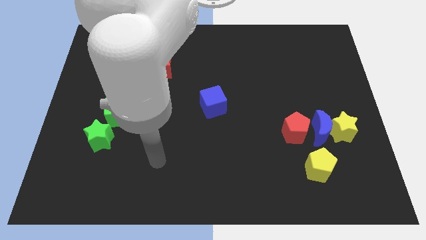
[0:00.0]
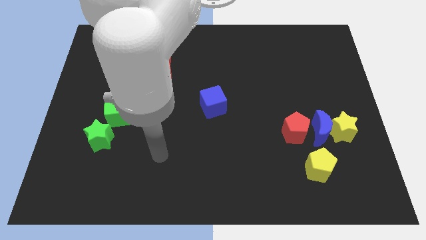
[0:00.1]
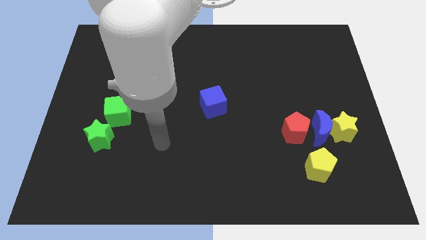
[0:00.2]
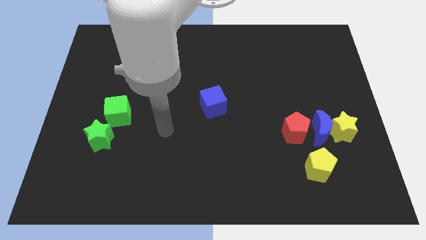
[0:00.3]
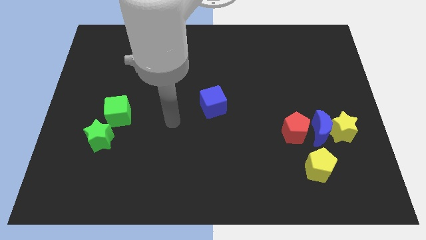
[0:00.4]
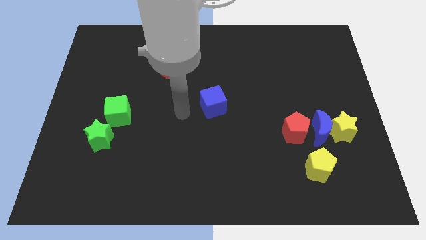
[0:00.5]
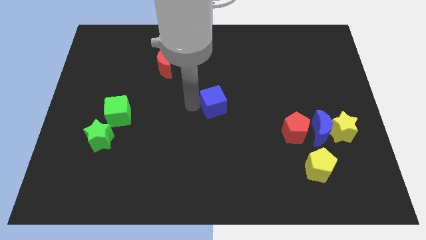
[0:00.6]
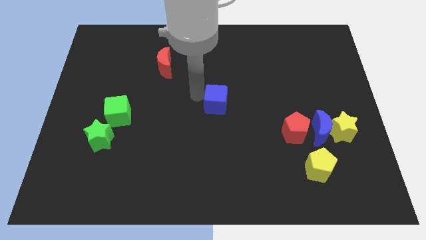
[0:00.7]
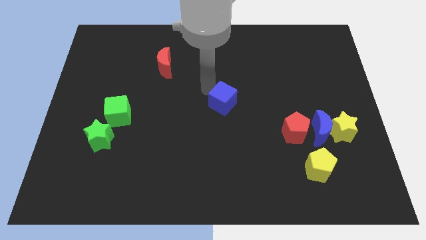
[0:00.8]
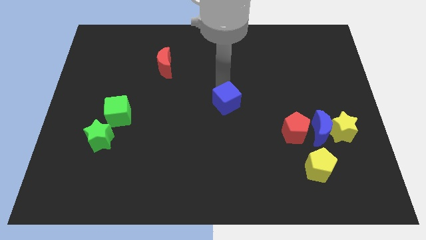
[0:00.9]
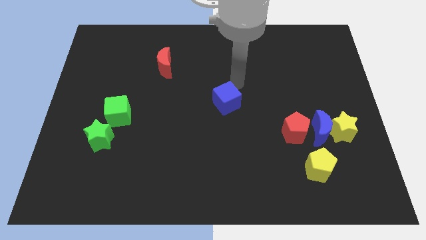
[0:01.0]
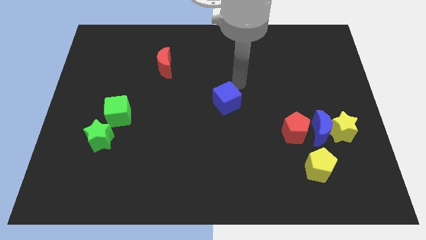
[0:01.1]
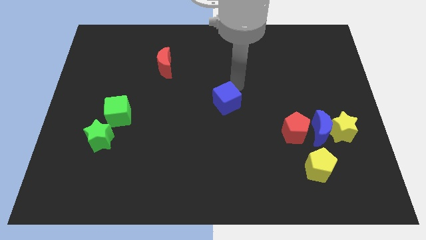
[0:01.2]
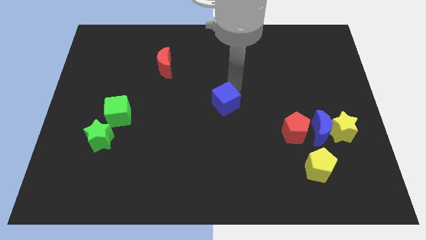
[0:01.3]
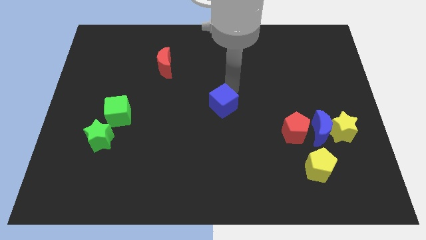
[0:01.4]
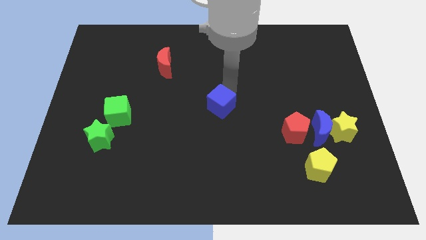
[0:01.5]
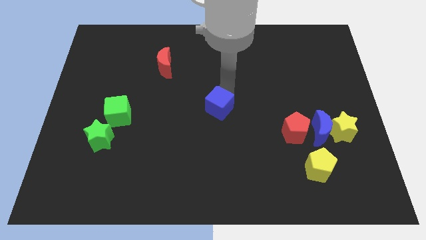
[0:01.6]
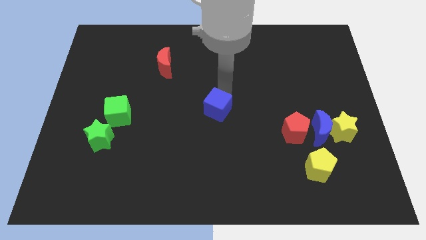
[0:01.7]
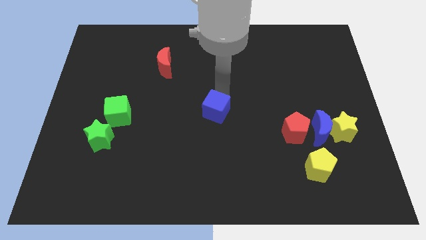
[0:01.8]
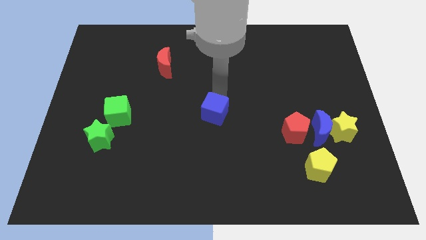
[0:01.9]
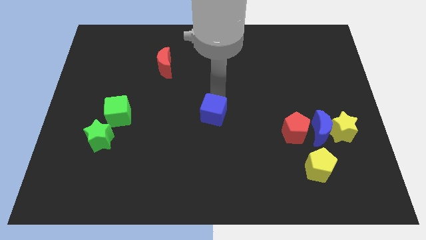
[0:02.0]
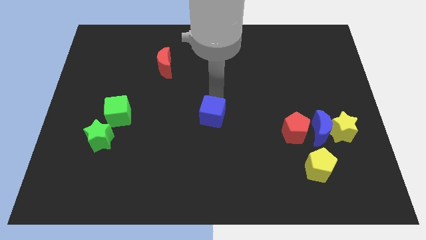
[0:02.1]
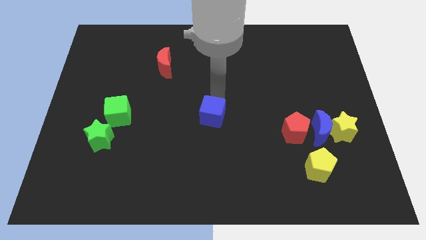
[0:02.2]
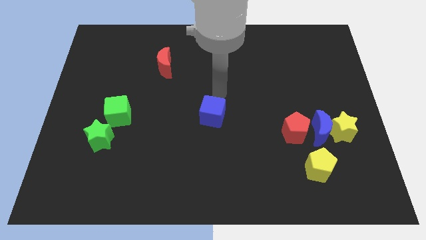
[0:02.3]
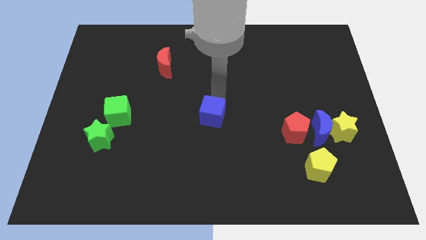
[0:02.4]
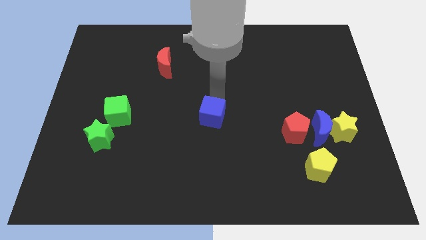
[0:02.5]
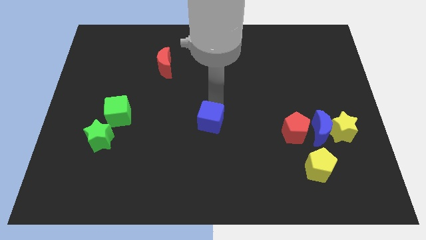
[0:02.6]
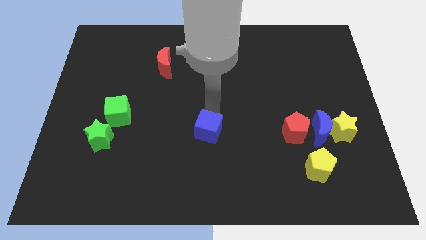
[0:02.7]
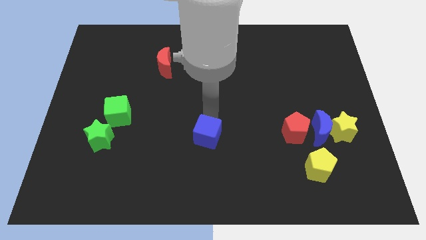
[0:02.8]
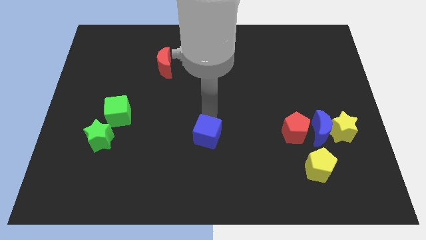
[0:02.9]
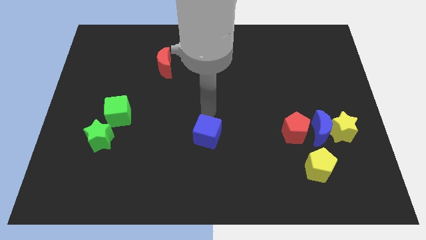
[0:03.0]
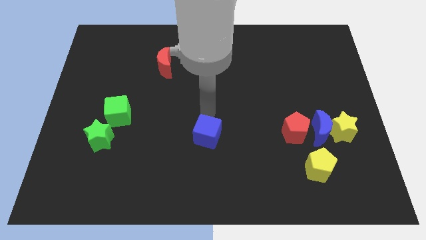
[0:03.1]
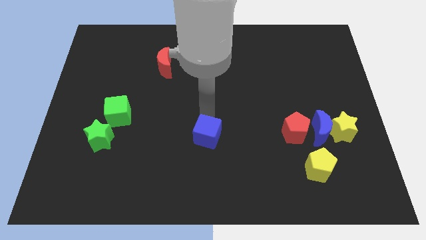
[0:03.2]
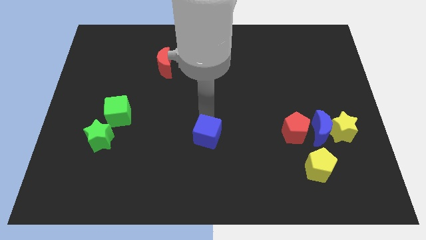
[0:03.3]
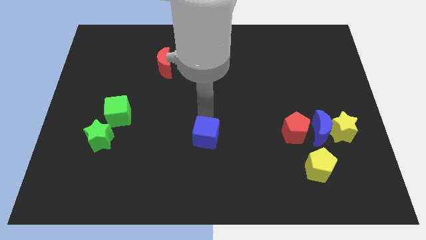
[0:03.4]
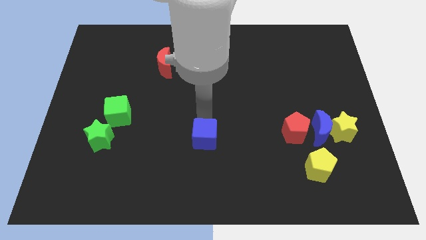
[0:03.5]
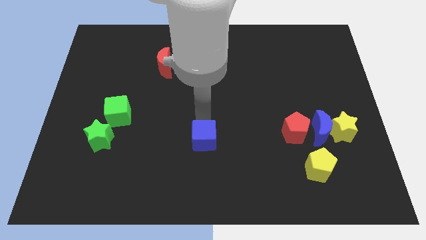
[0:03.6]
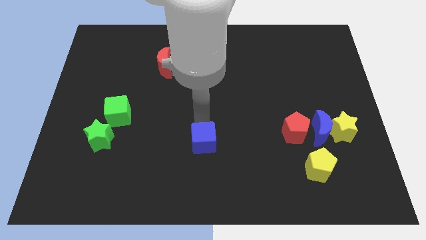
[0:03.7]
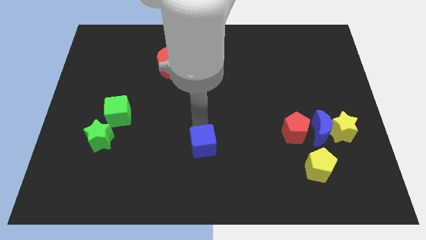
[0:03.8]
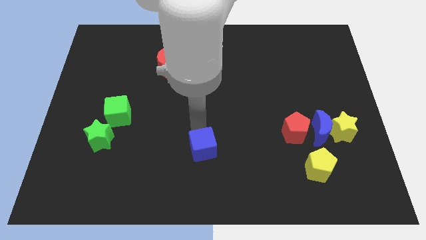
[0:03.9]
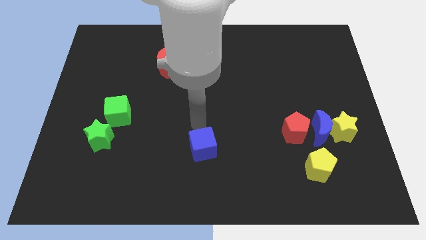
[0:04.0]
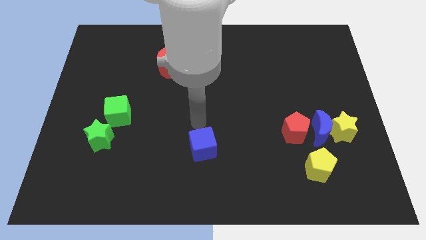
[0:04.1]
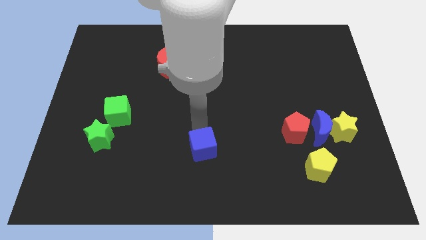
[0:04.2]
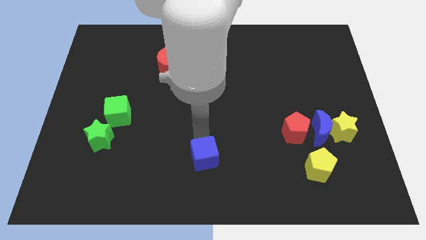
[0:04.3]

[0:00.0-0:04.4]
slide the blue cube to the bottom

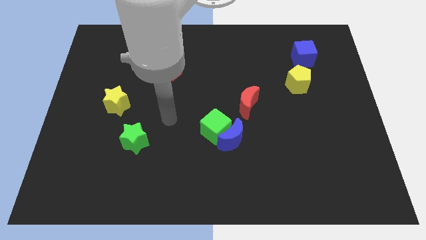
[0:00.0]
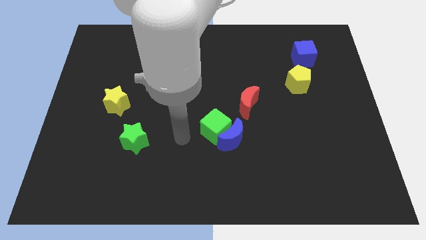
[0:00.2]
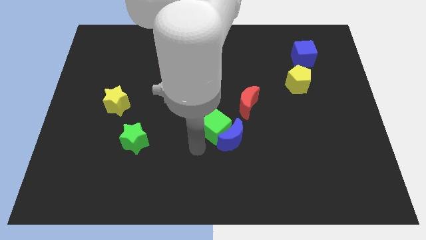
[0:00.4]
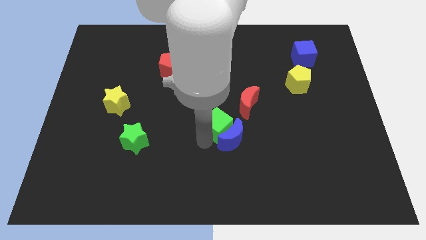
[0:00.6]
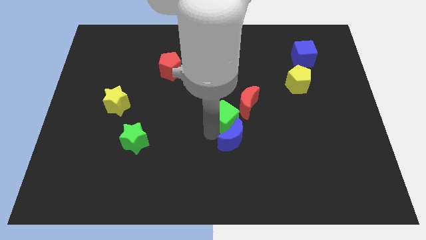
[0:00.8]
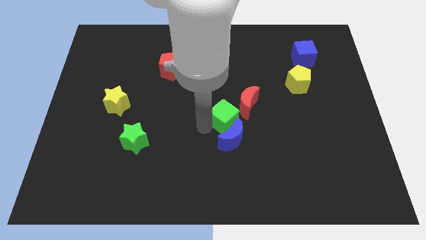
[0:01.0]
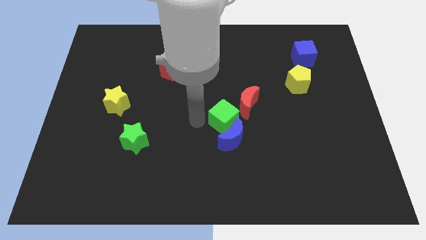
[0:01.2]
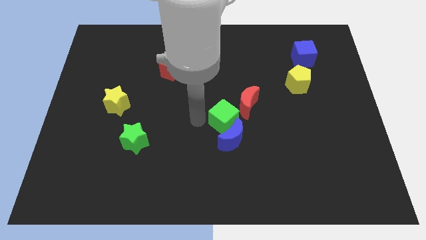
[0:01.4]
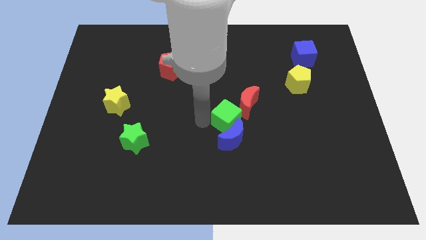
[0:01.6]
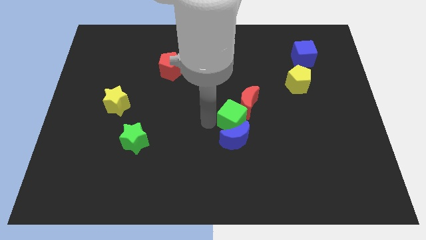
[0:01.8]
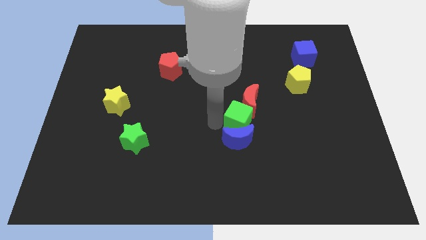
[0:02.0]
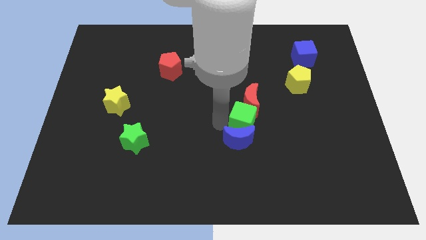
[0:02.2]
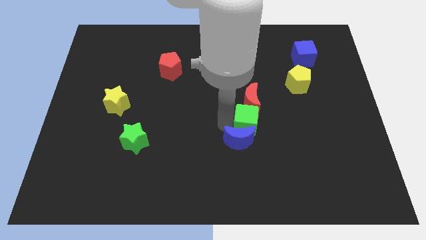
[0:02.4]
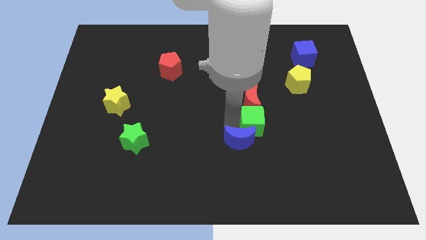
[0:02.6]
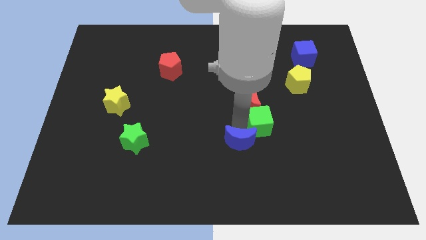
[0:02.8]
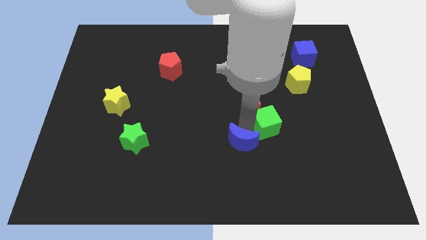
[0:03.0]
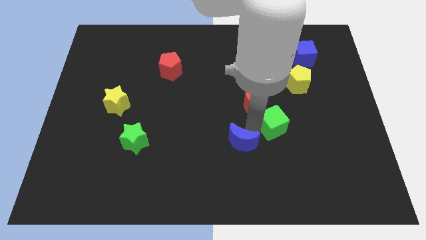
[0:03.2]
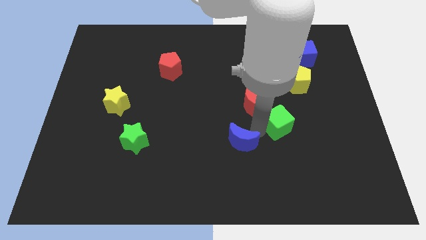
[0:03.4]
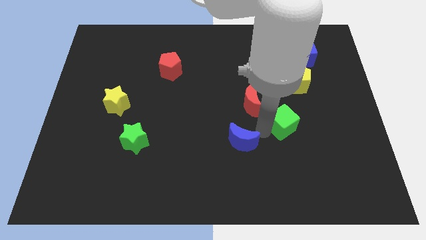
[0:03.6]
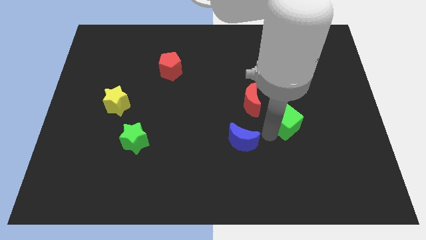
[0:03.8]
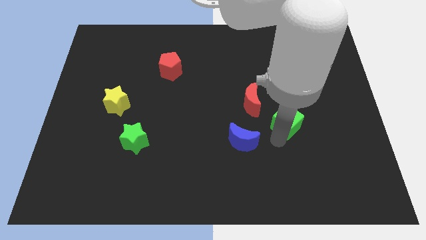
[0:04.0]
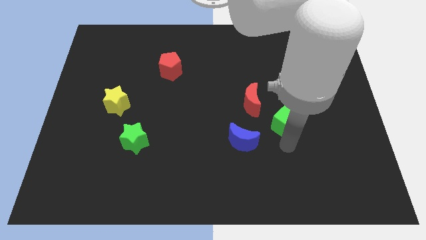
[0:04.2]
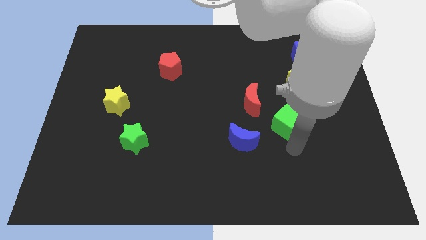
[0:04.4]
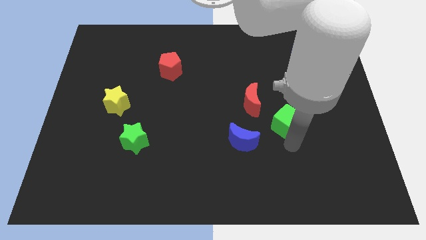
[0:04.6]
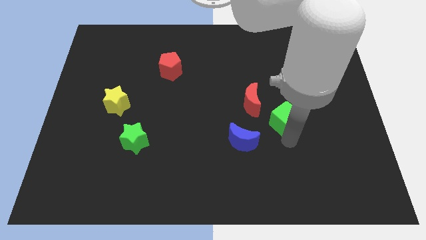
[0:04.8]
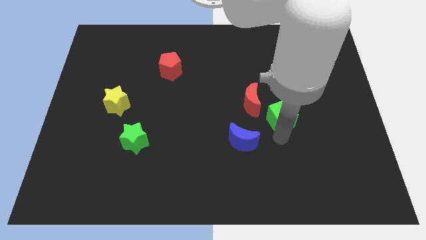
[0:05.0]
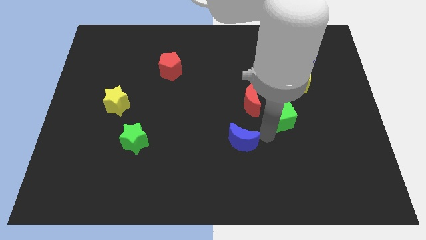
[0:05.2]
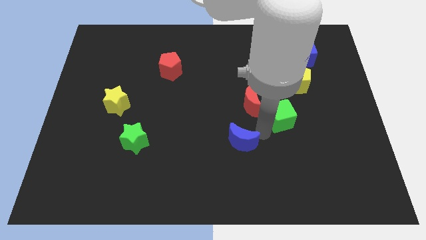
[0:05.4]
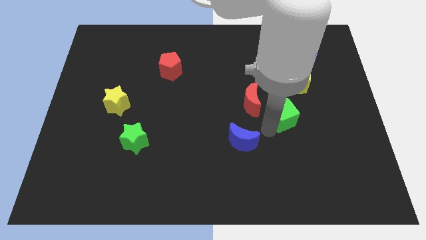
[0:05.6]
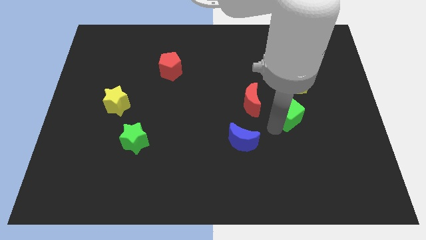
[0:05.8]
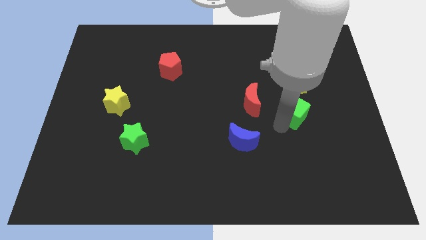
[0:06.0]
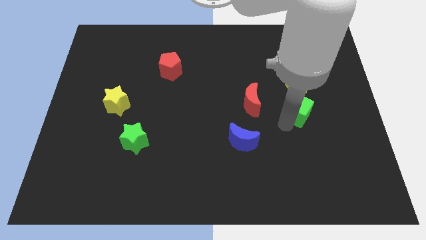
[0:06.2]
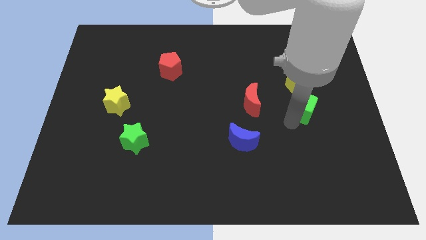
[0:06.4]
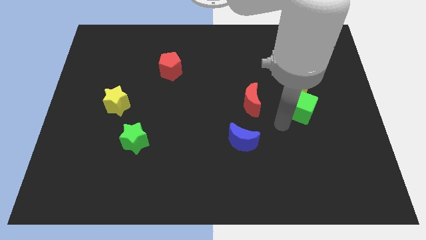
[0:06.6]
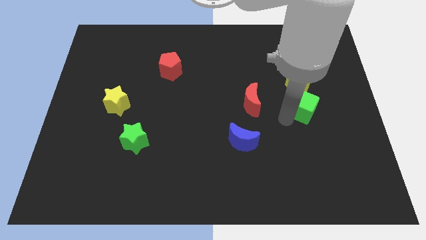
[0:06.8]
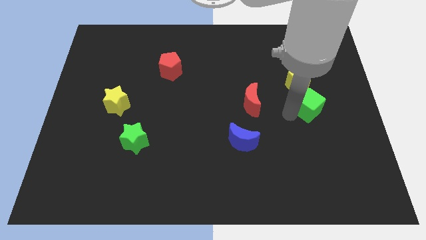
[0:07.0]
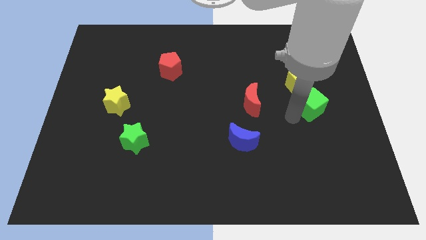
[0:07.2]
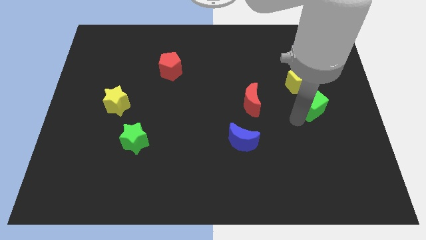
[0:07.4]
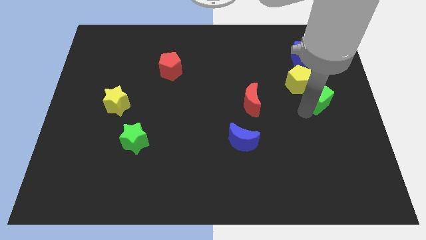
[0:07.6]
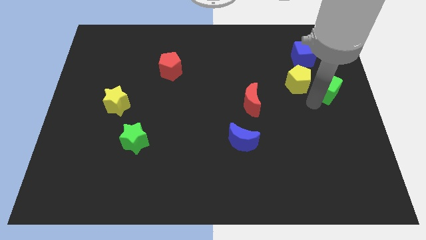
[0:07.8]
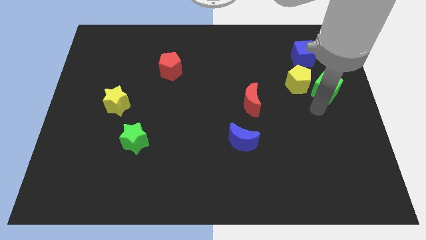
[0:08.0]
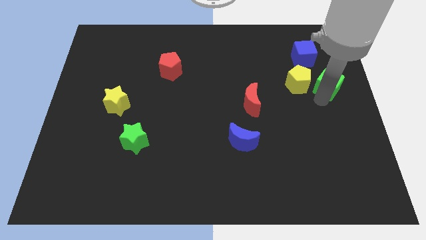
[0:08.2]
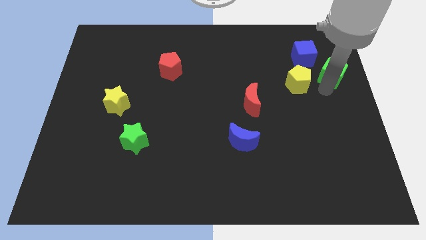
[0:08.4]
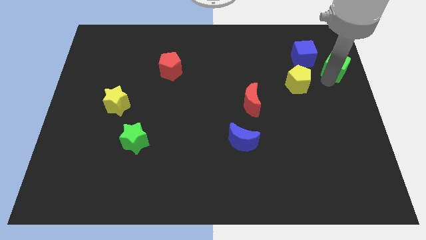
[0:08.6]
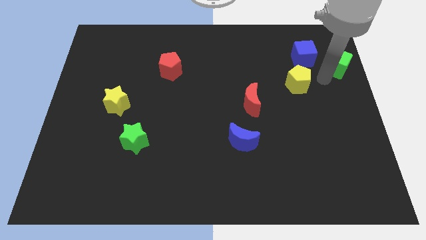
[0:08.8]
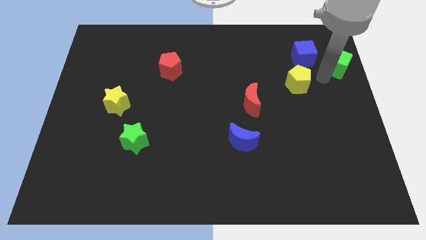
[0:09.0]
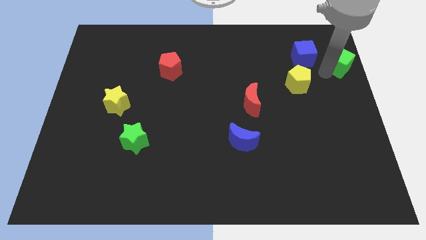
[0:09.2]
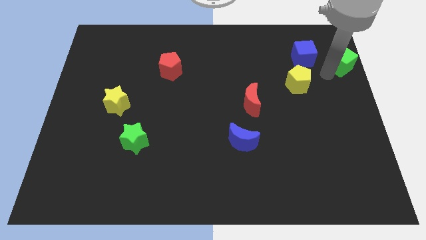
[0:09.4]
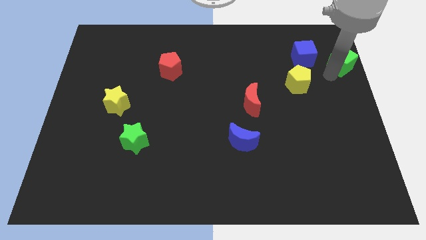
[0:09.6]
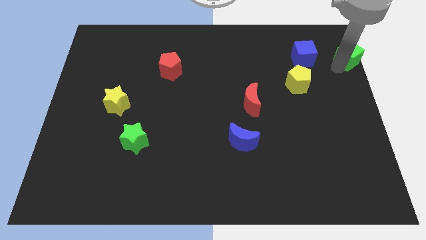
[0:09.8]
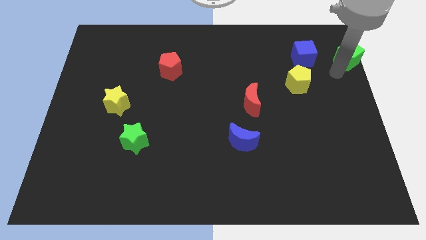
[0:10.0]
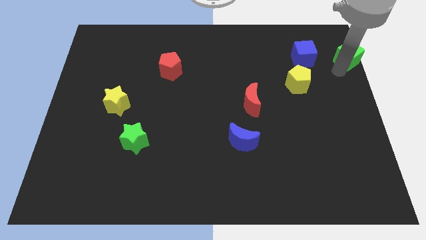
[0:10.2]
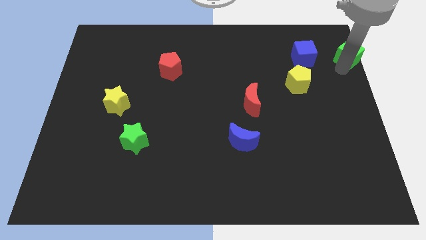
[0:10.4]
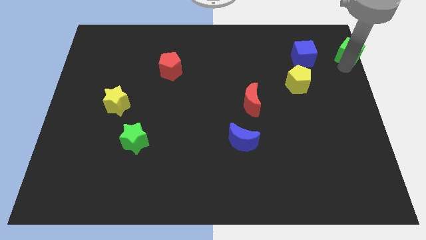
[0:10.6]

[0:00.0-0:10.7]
move the green cube to the upper right corner
